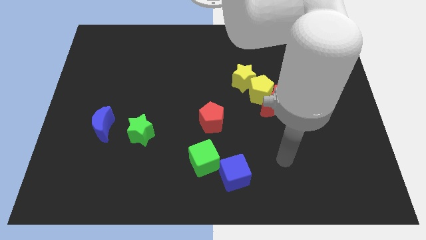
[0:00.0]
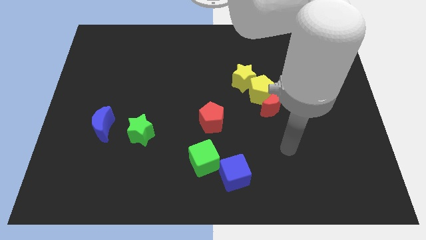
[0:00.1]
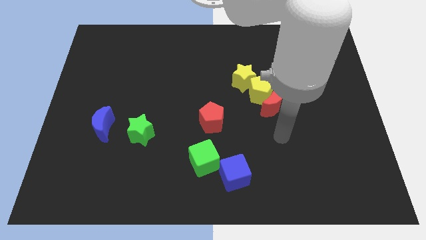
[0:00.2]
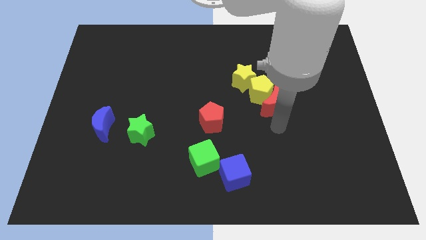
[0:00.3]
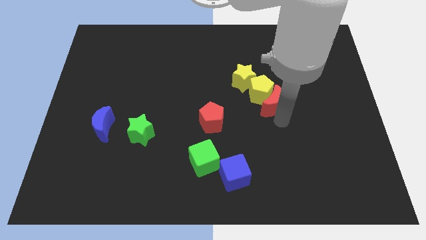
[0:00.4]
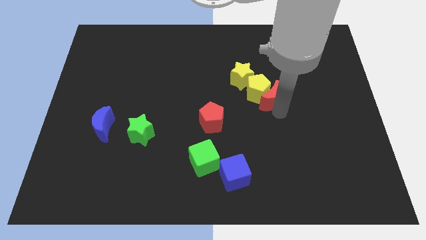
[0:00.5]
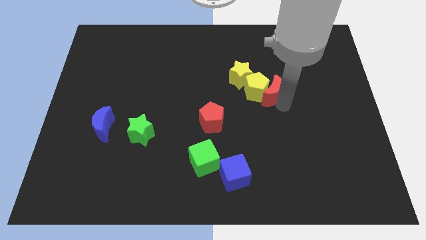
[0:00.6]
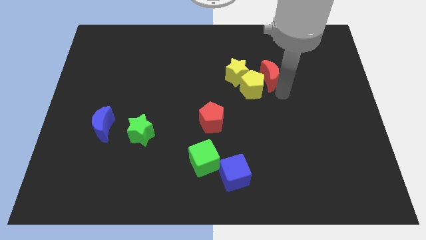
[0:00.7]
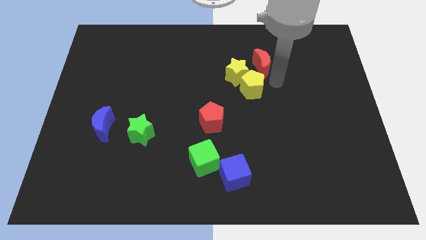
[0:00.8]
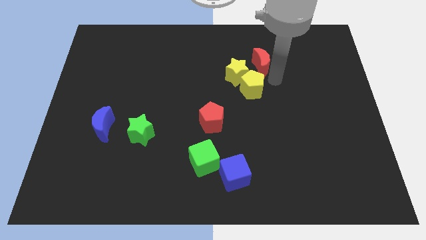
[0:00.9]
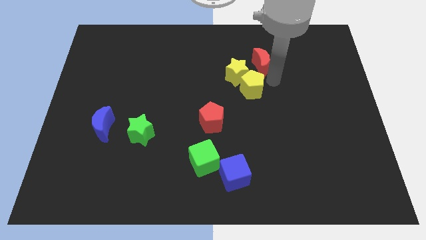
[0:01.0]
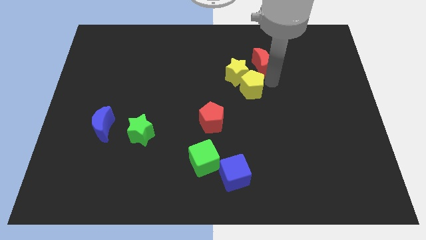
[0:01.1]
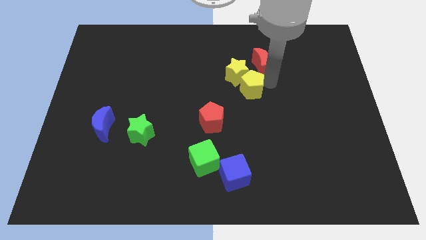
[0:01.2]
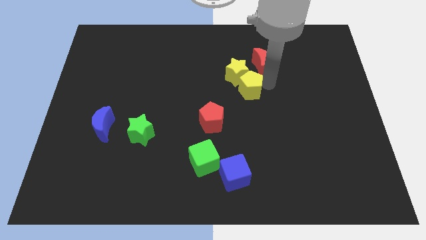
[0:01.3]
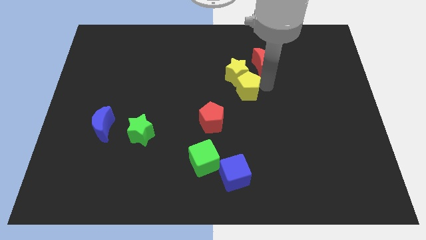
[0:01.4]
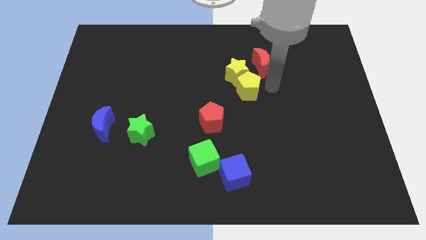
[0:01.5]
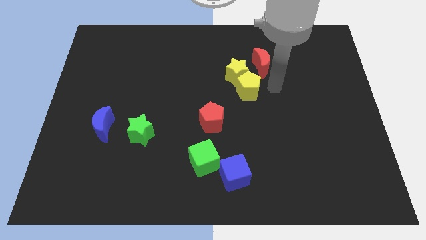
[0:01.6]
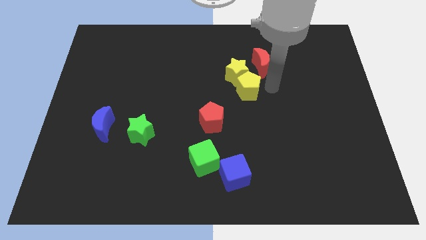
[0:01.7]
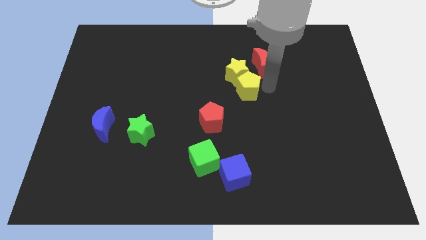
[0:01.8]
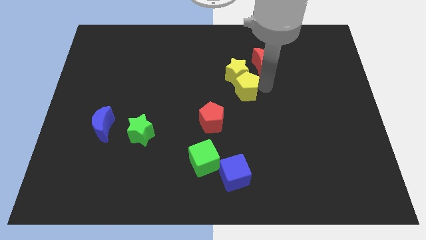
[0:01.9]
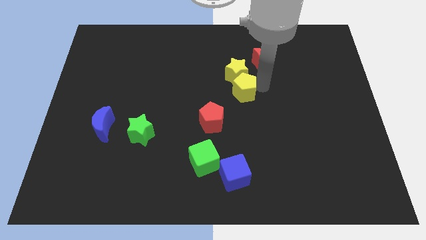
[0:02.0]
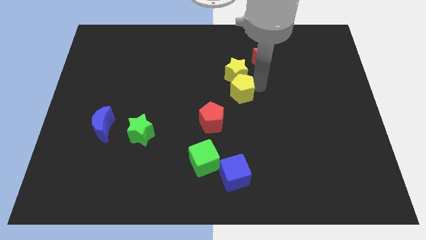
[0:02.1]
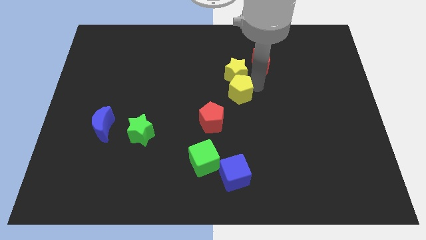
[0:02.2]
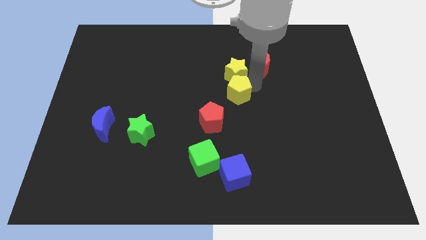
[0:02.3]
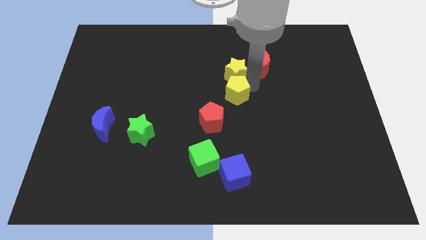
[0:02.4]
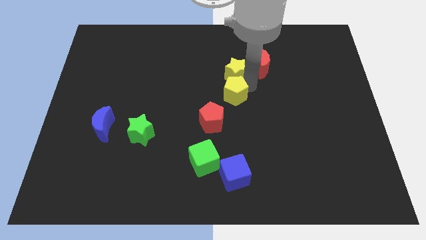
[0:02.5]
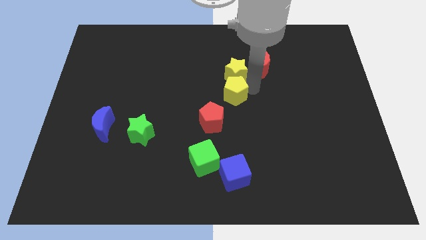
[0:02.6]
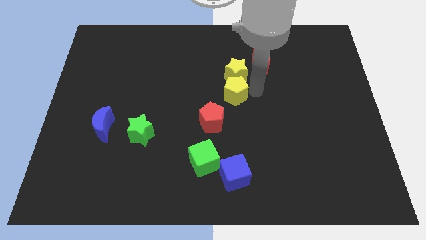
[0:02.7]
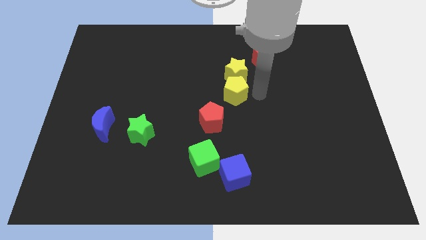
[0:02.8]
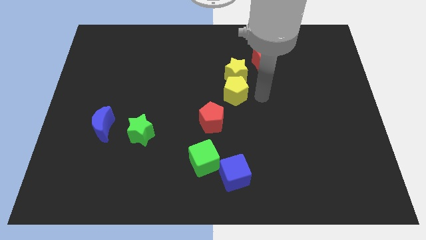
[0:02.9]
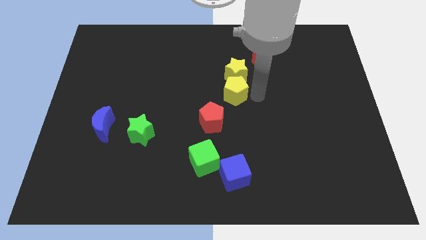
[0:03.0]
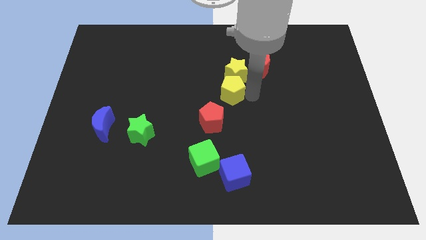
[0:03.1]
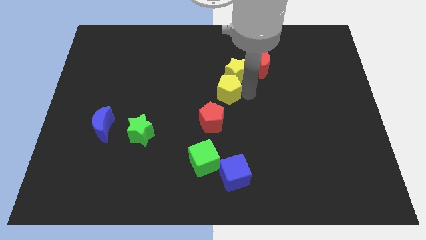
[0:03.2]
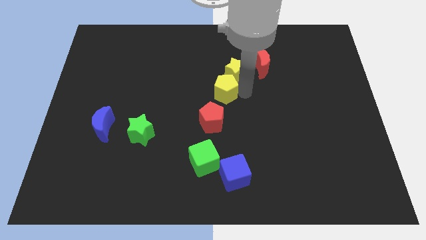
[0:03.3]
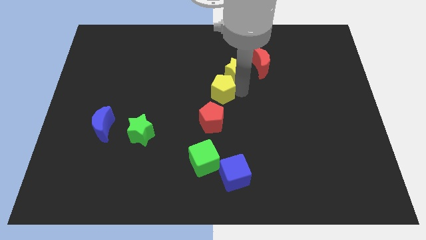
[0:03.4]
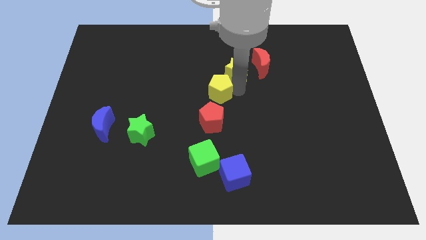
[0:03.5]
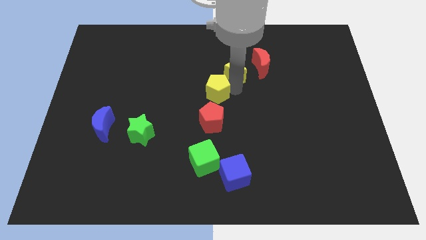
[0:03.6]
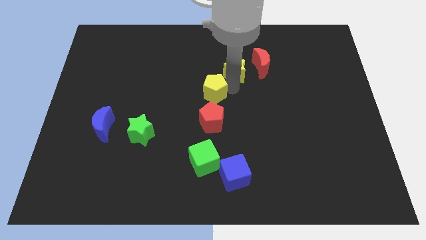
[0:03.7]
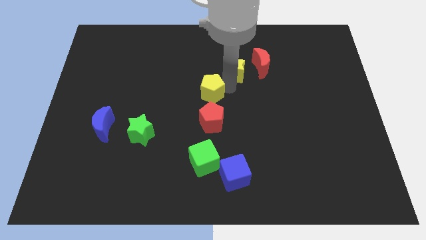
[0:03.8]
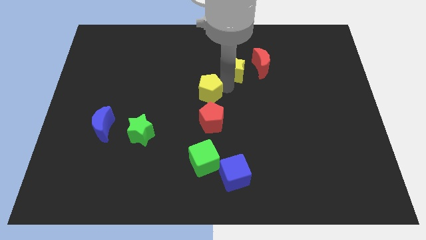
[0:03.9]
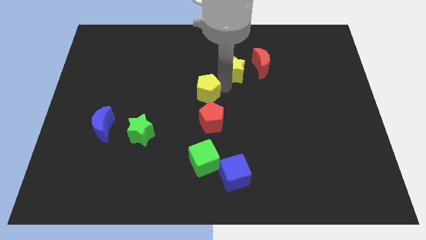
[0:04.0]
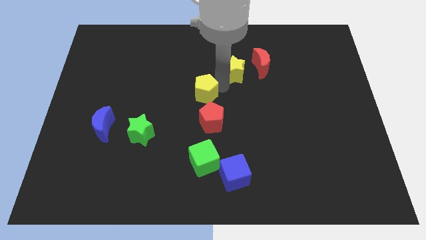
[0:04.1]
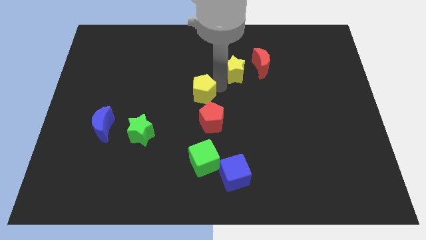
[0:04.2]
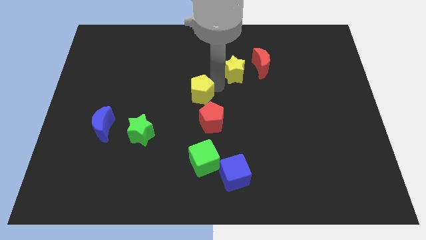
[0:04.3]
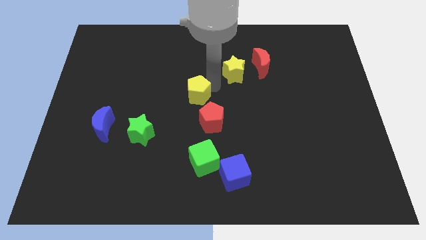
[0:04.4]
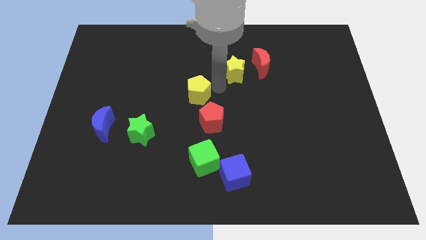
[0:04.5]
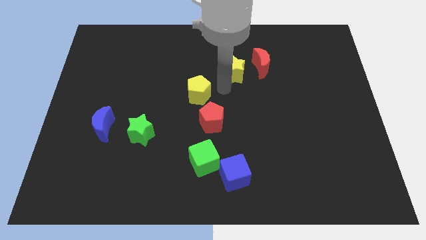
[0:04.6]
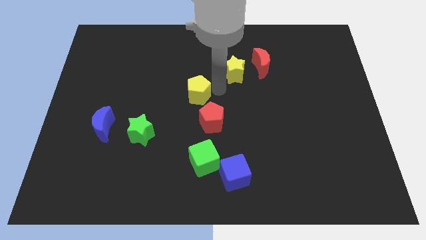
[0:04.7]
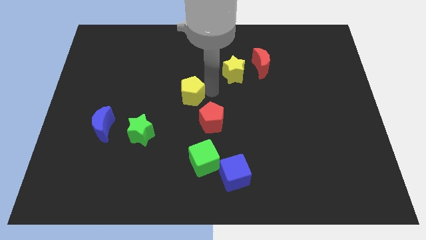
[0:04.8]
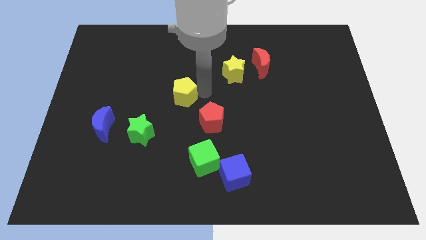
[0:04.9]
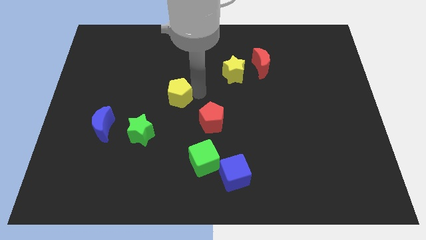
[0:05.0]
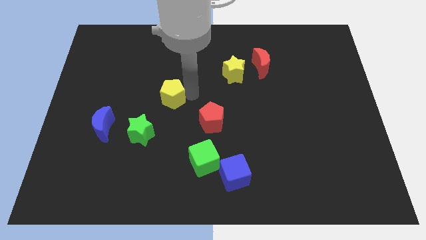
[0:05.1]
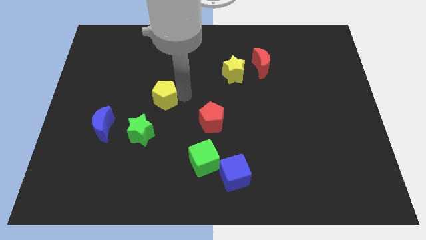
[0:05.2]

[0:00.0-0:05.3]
put the yellow pentagon to the top of the green star

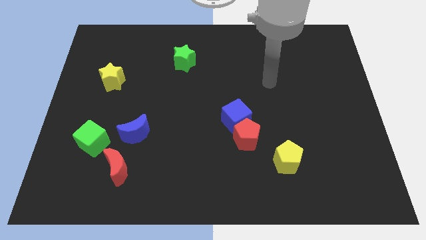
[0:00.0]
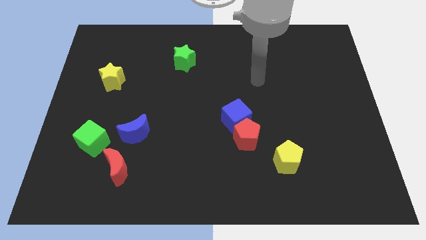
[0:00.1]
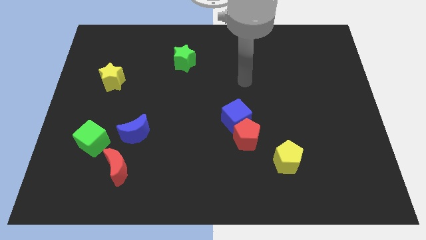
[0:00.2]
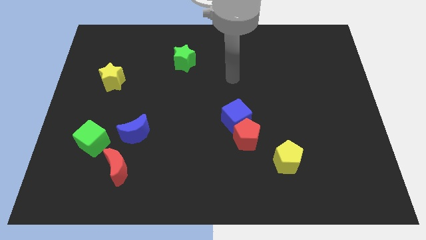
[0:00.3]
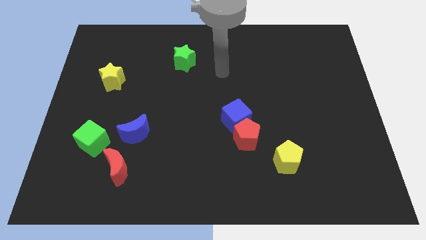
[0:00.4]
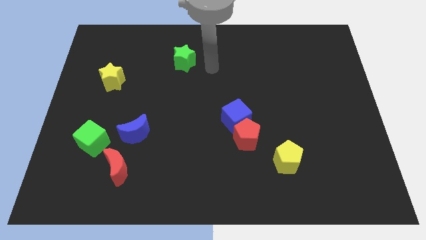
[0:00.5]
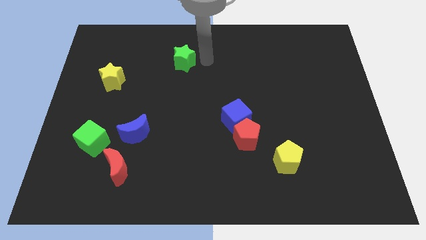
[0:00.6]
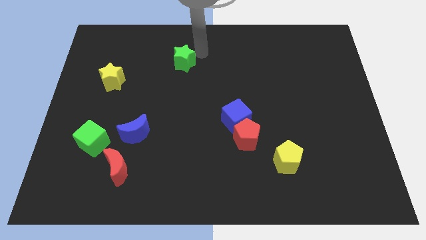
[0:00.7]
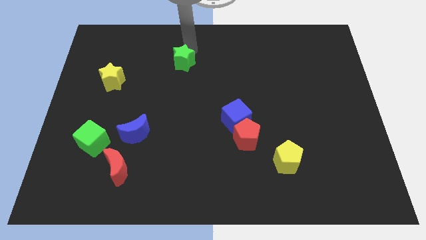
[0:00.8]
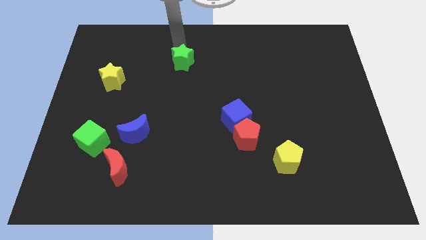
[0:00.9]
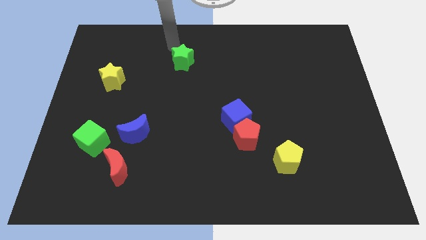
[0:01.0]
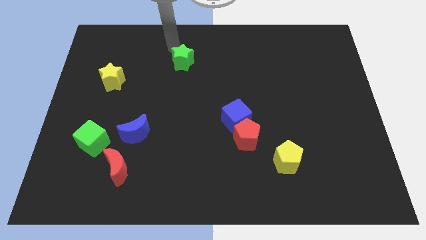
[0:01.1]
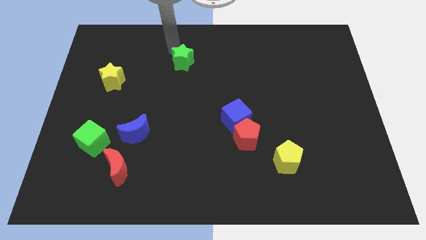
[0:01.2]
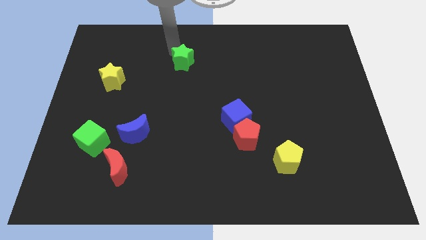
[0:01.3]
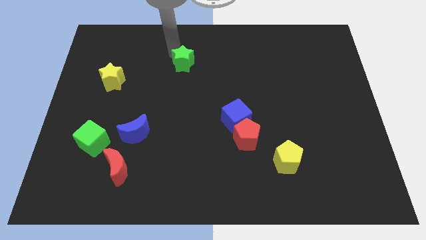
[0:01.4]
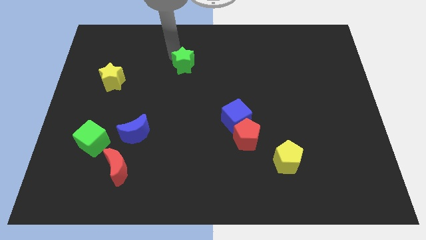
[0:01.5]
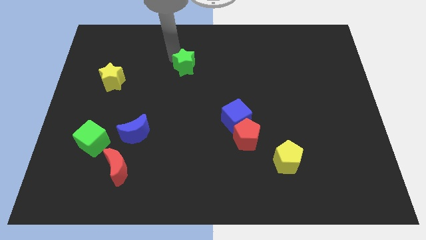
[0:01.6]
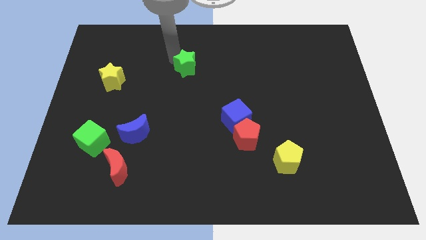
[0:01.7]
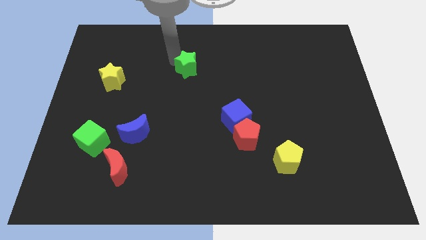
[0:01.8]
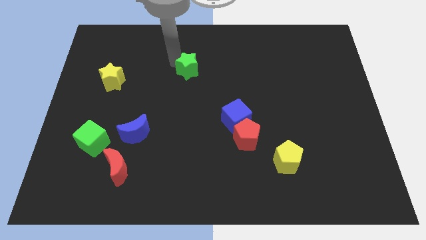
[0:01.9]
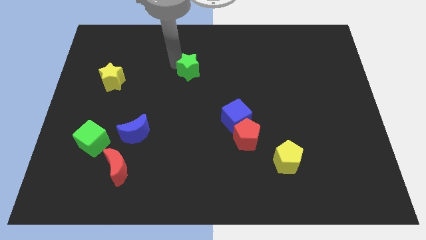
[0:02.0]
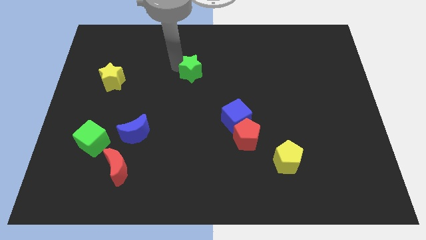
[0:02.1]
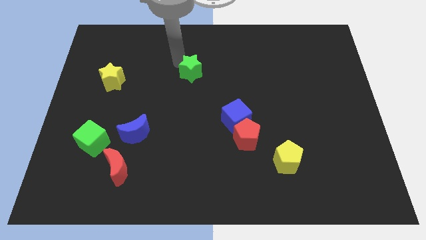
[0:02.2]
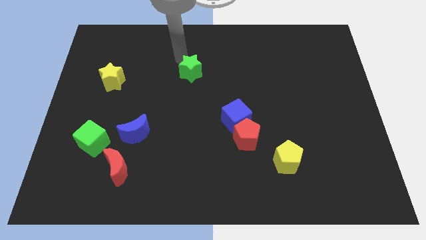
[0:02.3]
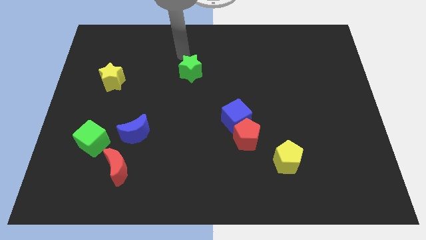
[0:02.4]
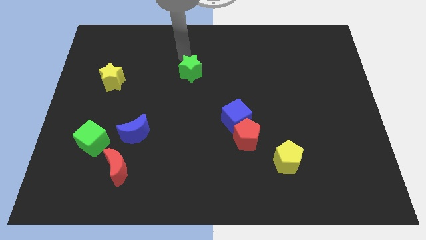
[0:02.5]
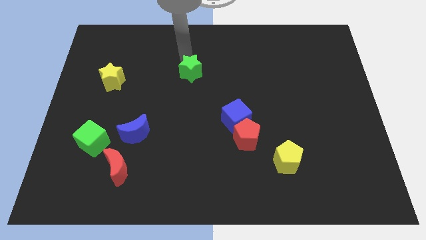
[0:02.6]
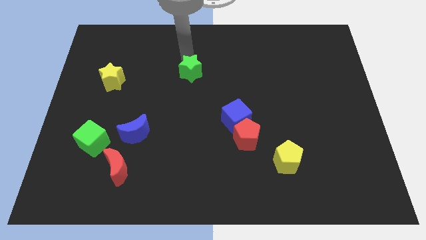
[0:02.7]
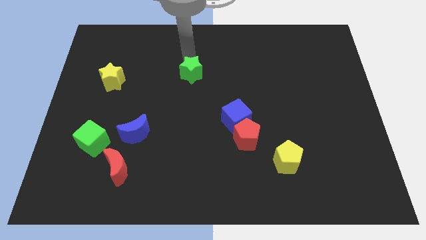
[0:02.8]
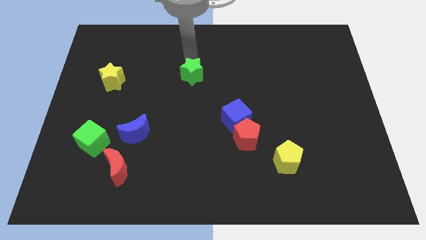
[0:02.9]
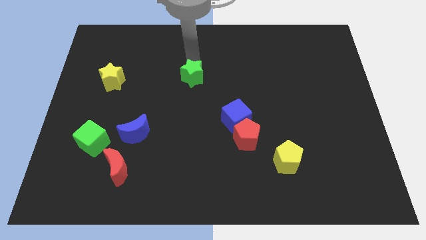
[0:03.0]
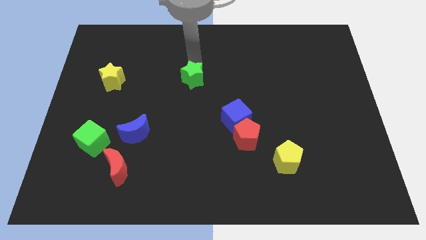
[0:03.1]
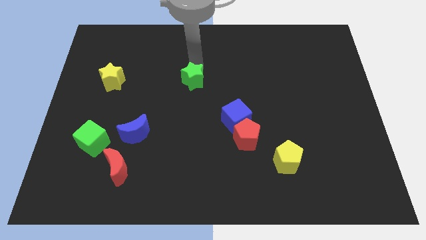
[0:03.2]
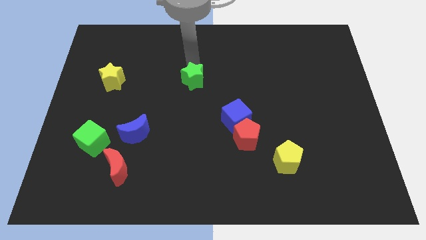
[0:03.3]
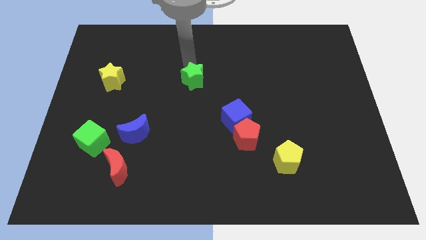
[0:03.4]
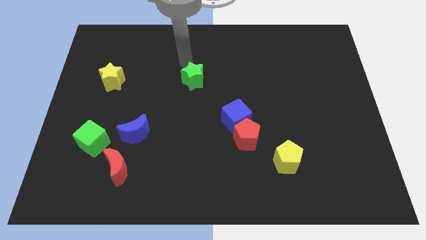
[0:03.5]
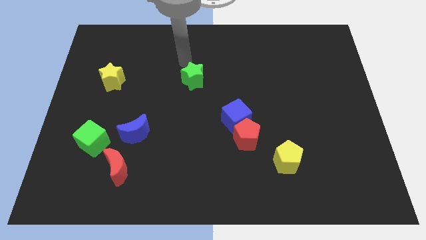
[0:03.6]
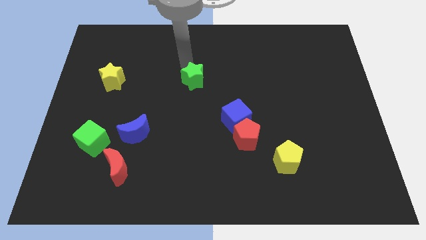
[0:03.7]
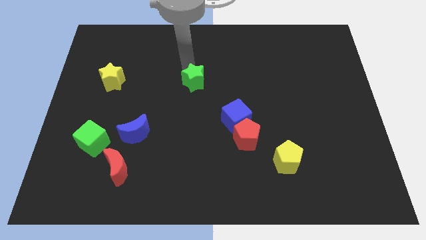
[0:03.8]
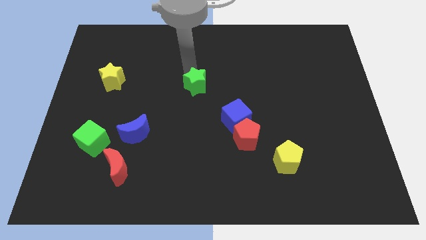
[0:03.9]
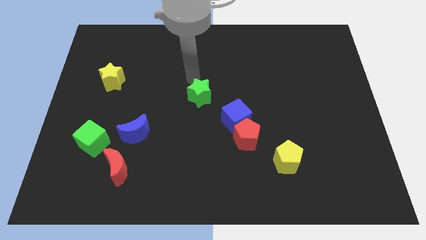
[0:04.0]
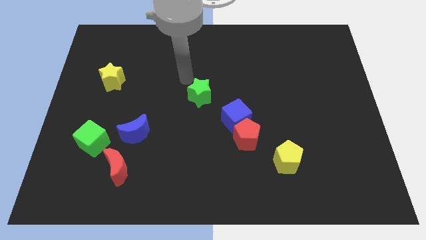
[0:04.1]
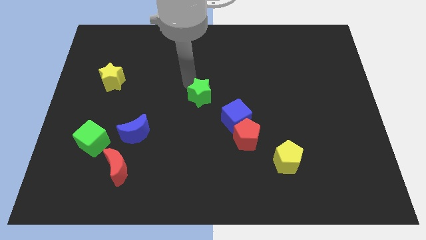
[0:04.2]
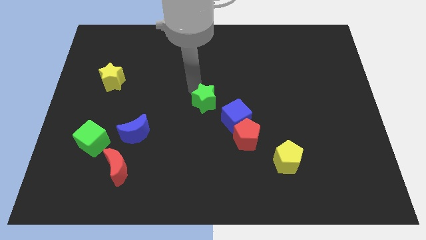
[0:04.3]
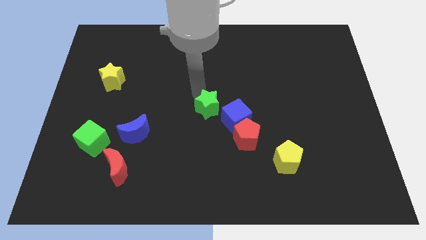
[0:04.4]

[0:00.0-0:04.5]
push the green star diagonally up and to the left of the red pentagon
